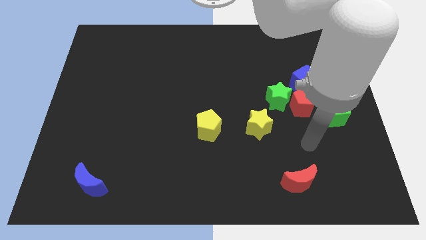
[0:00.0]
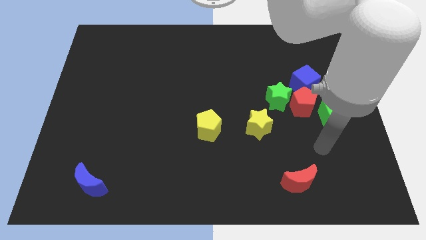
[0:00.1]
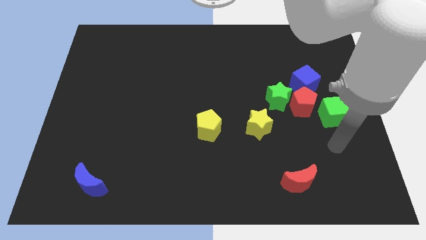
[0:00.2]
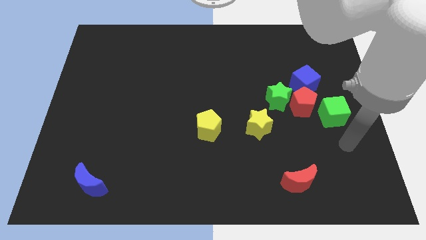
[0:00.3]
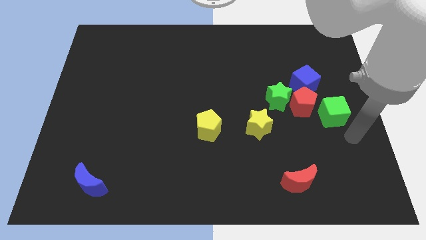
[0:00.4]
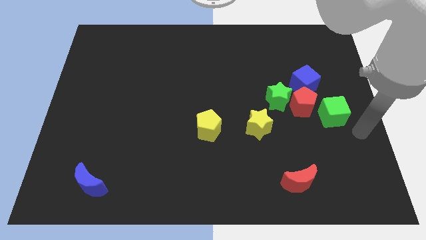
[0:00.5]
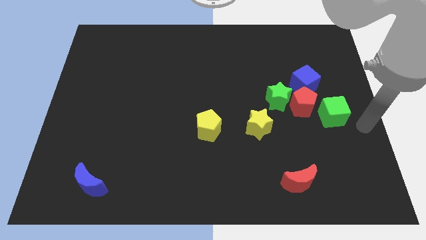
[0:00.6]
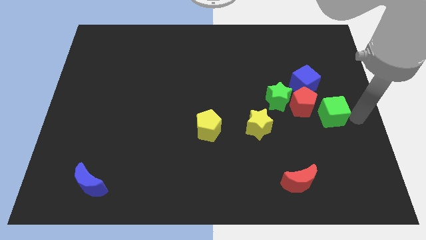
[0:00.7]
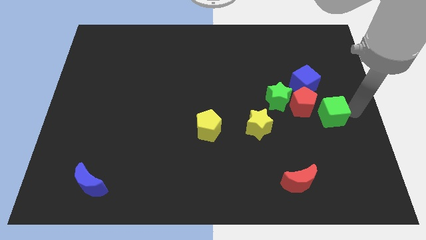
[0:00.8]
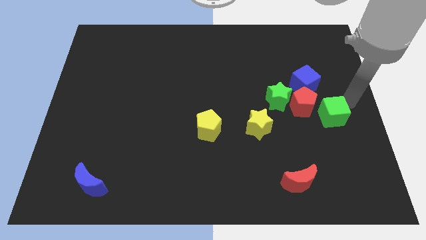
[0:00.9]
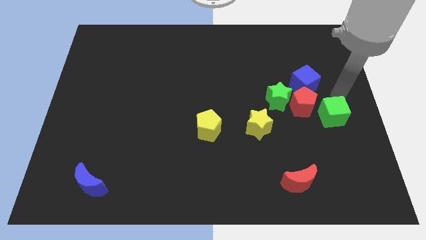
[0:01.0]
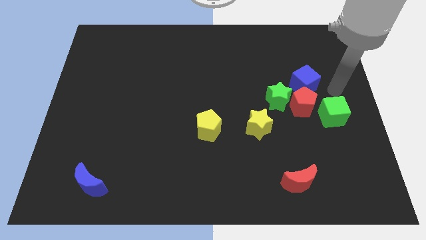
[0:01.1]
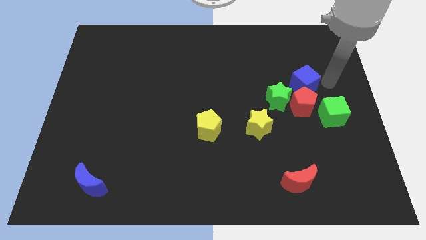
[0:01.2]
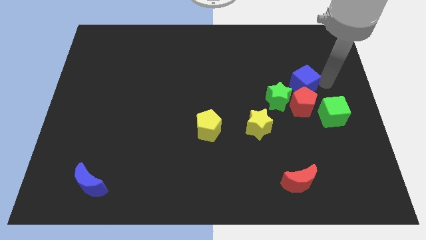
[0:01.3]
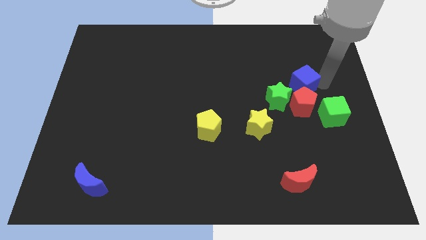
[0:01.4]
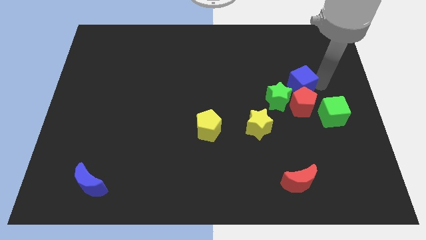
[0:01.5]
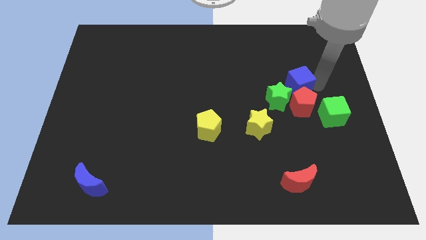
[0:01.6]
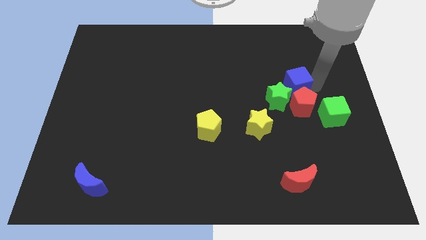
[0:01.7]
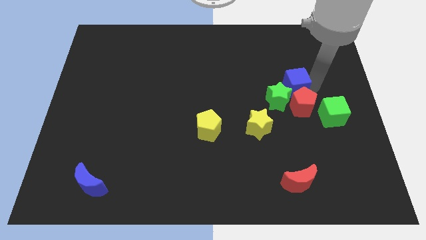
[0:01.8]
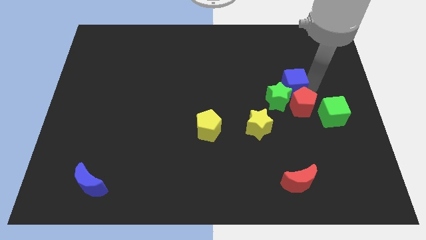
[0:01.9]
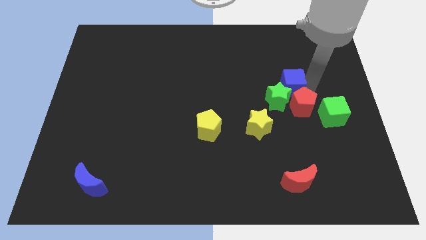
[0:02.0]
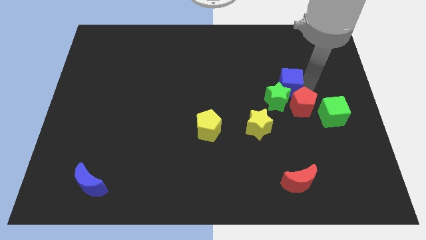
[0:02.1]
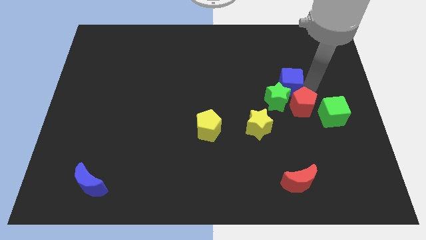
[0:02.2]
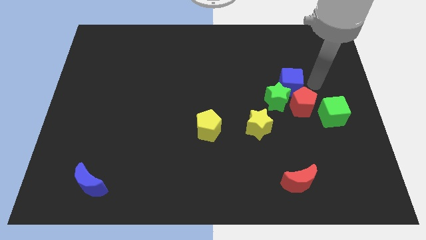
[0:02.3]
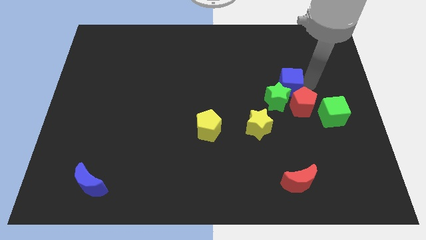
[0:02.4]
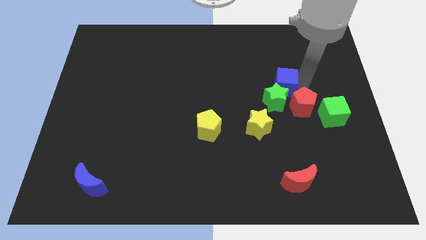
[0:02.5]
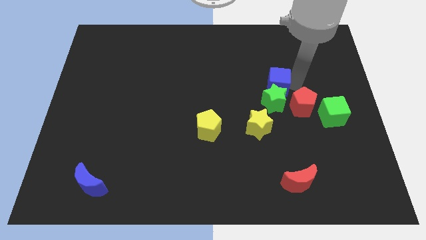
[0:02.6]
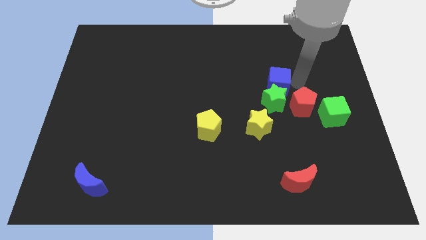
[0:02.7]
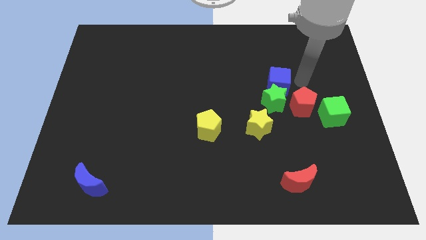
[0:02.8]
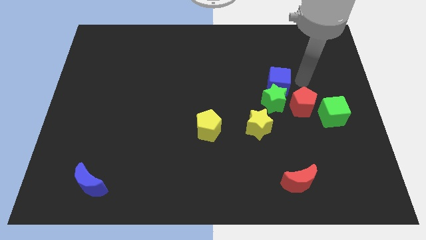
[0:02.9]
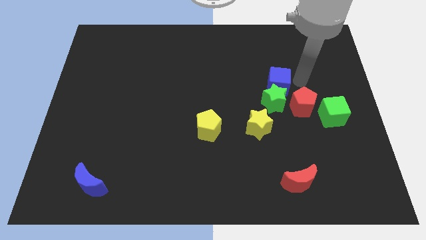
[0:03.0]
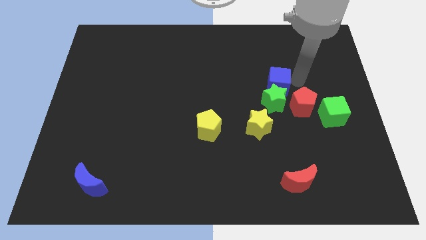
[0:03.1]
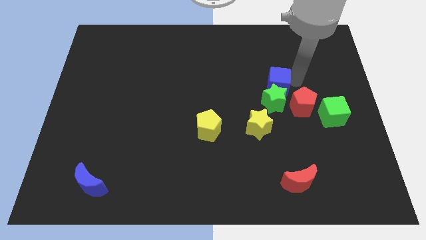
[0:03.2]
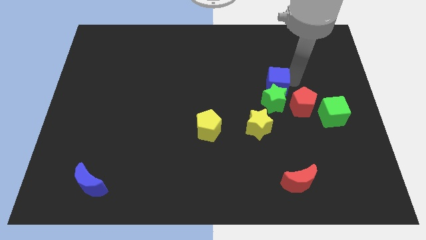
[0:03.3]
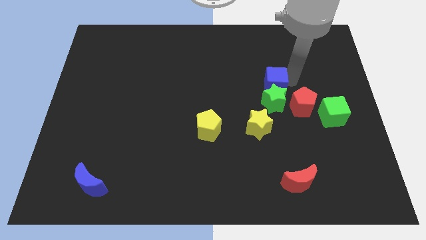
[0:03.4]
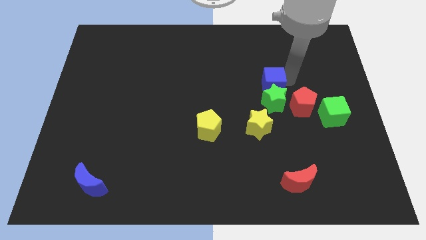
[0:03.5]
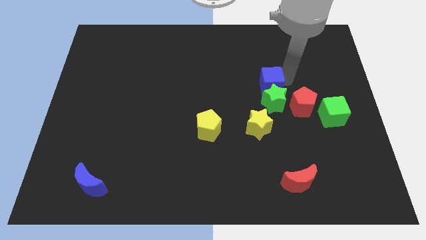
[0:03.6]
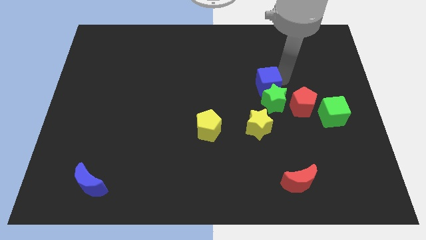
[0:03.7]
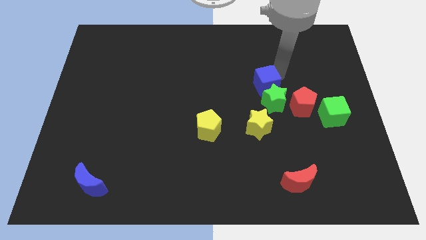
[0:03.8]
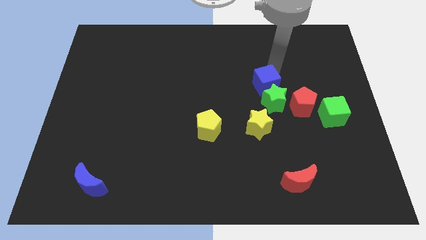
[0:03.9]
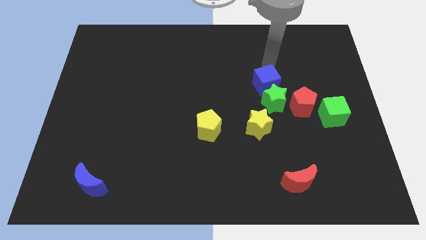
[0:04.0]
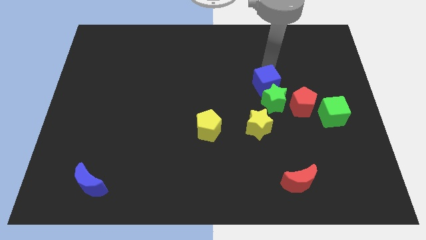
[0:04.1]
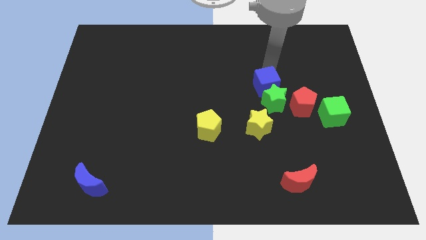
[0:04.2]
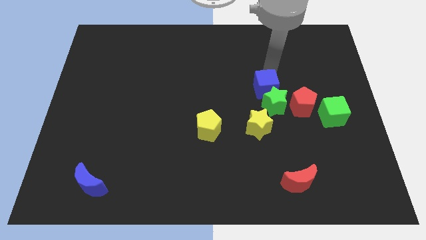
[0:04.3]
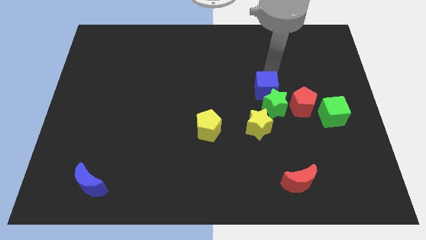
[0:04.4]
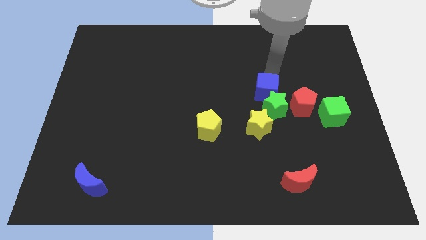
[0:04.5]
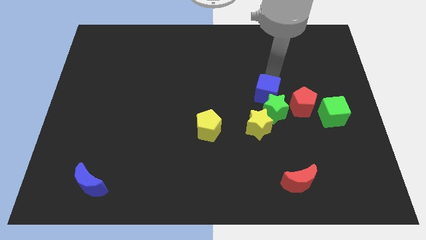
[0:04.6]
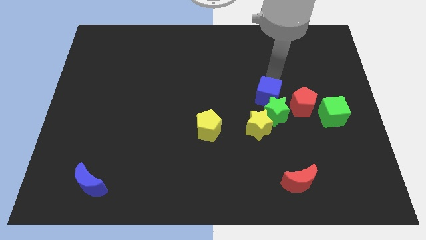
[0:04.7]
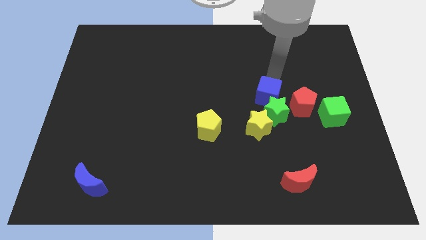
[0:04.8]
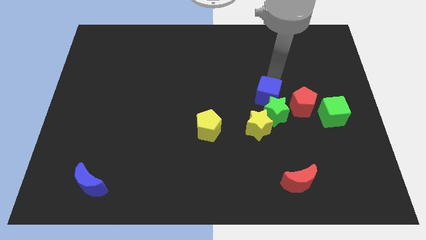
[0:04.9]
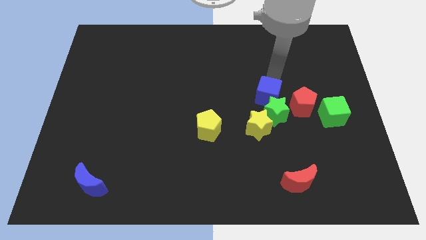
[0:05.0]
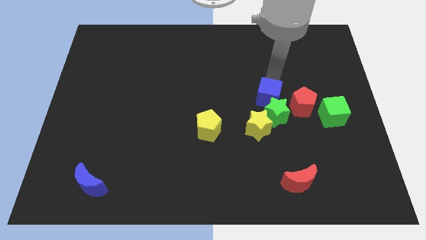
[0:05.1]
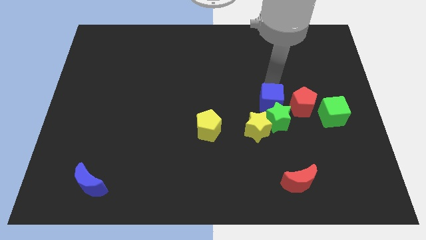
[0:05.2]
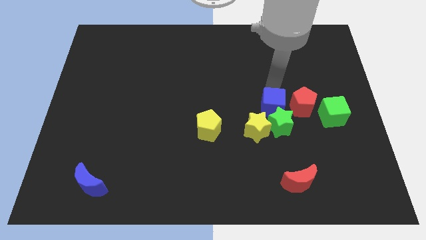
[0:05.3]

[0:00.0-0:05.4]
push the blue cube to the bottom left of the red pentagon

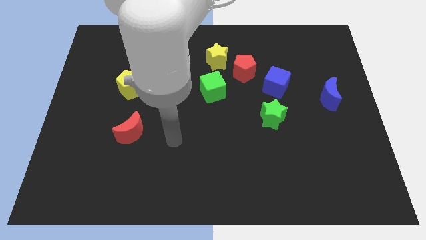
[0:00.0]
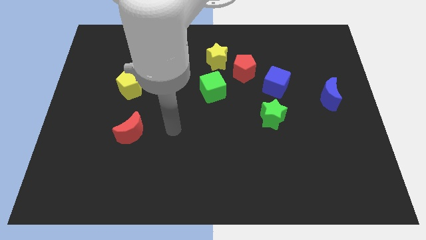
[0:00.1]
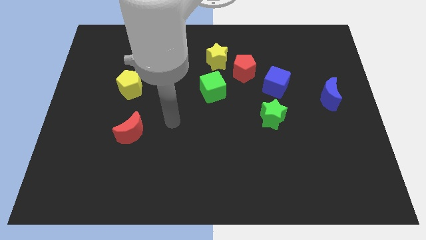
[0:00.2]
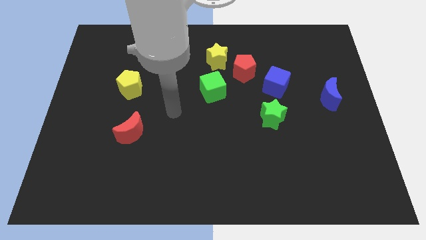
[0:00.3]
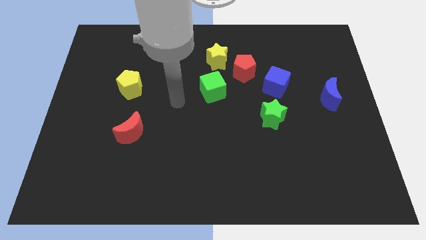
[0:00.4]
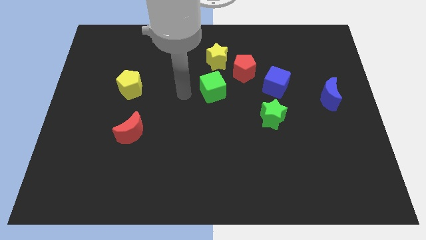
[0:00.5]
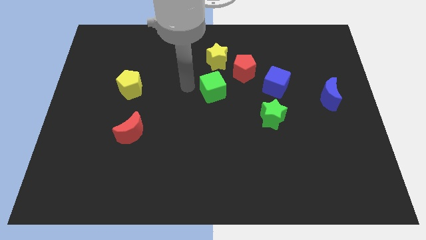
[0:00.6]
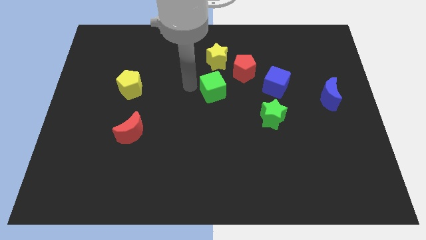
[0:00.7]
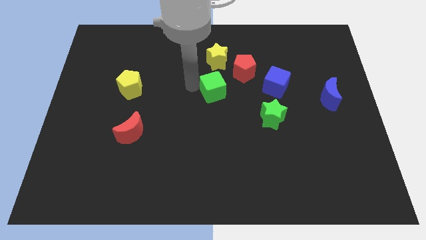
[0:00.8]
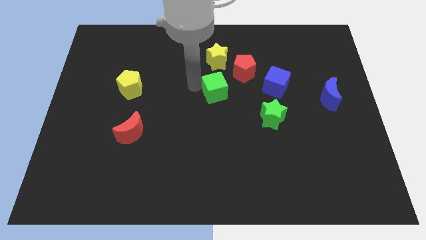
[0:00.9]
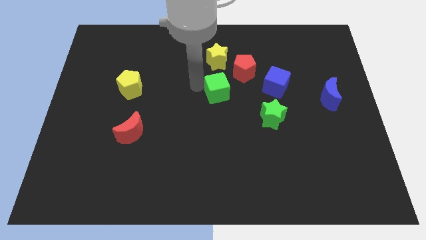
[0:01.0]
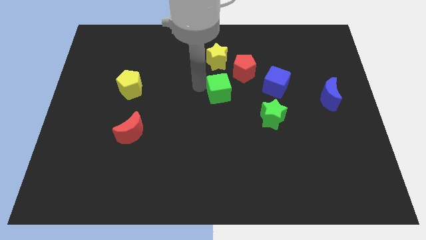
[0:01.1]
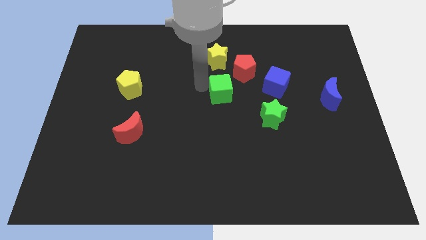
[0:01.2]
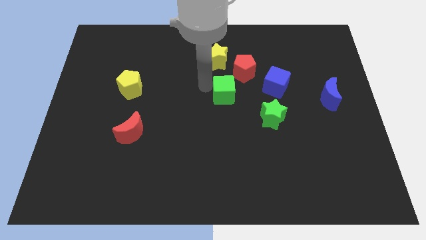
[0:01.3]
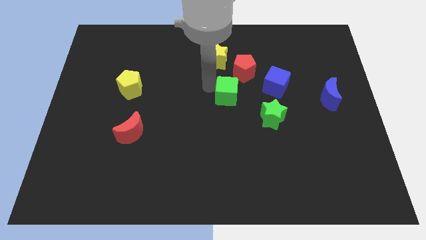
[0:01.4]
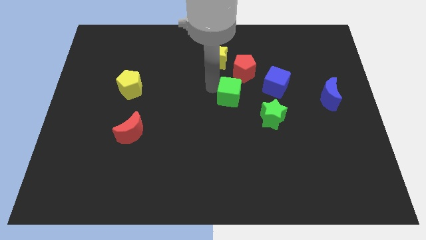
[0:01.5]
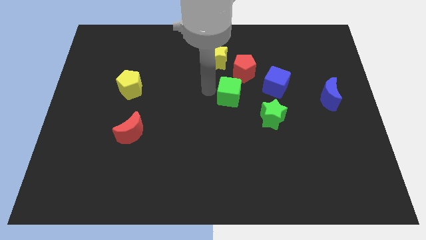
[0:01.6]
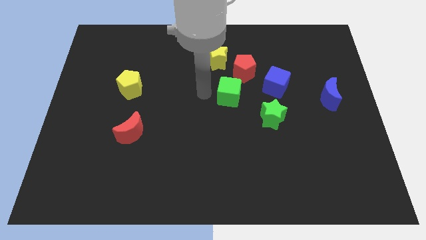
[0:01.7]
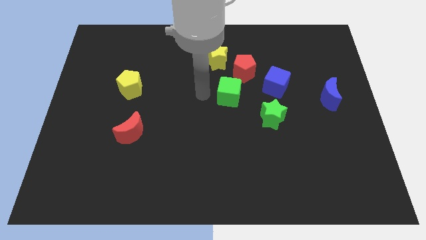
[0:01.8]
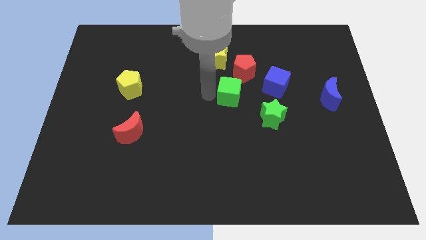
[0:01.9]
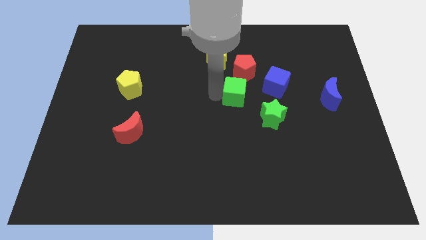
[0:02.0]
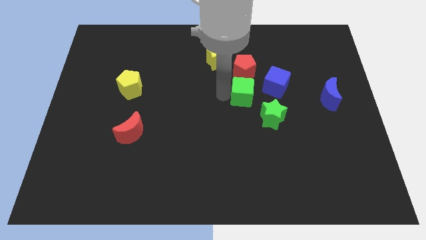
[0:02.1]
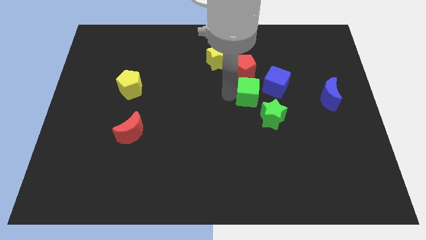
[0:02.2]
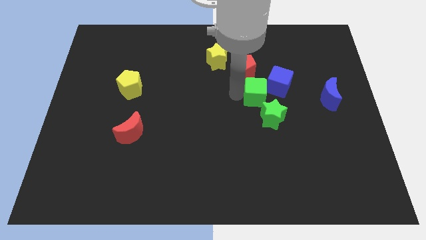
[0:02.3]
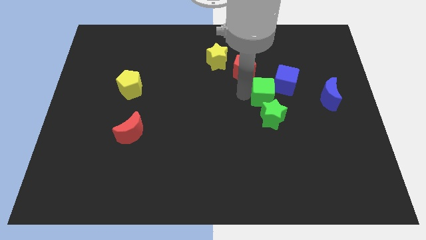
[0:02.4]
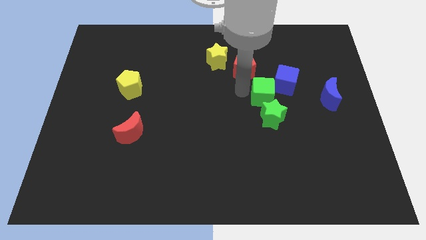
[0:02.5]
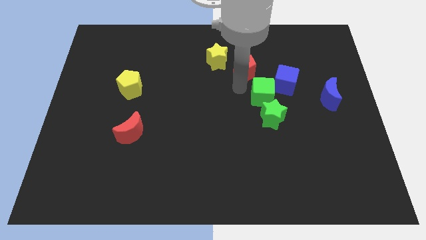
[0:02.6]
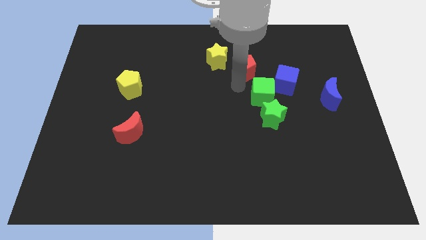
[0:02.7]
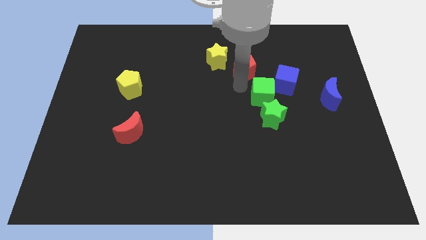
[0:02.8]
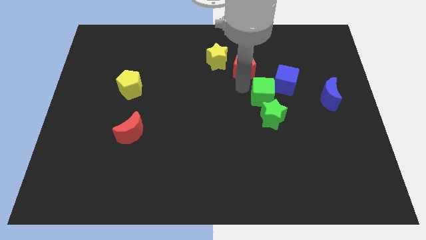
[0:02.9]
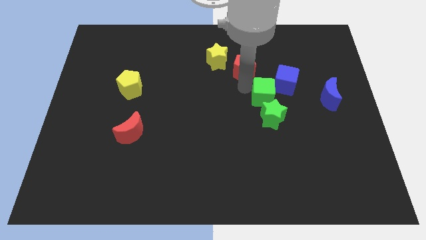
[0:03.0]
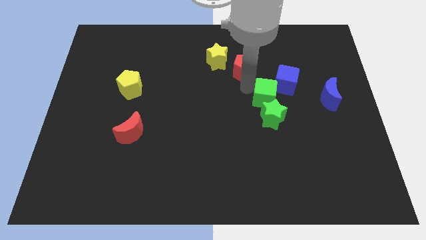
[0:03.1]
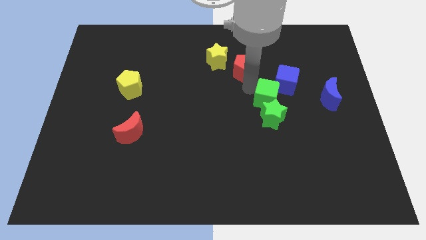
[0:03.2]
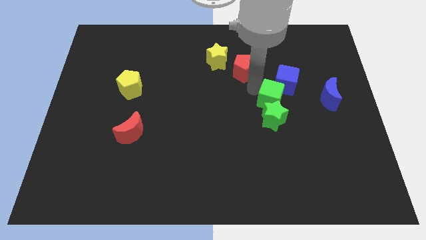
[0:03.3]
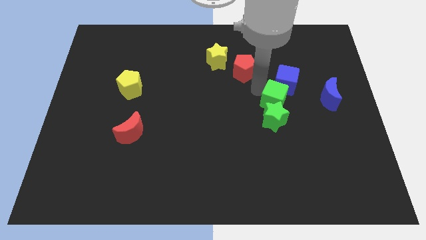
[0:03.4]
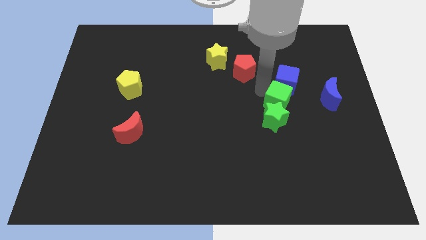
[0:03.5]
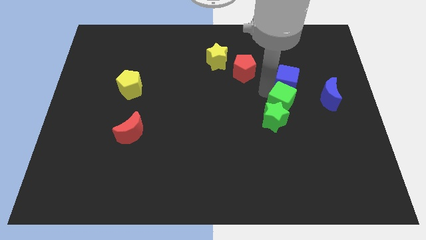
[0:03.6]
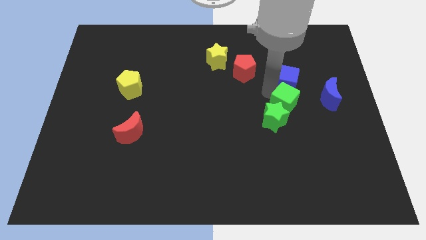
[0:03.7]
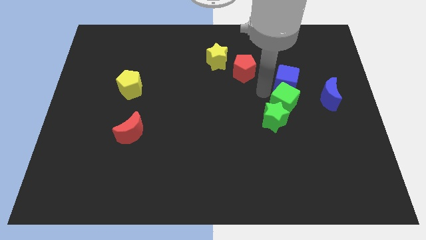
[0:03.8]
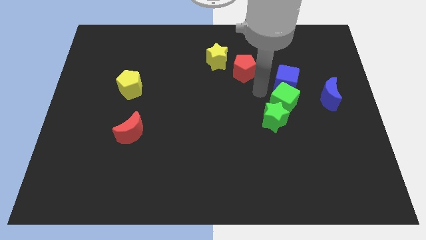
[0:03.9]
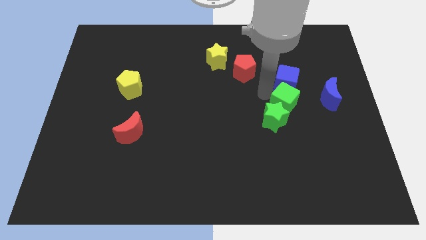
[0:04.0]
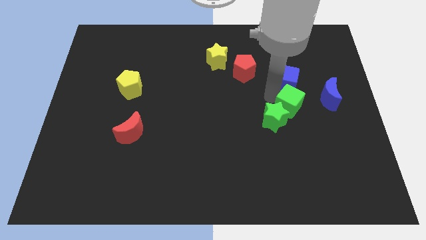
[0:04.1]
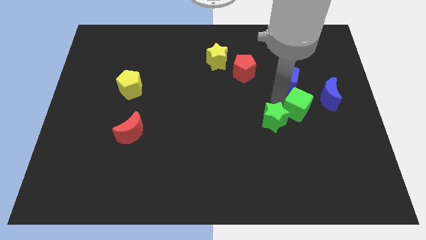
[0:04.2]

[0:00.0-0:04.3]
push the green cube to the bottom left side of the blue moon
